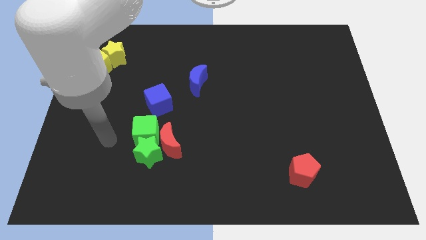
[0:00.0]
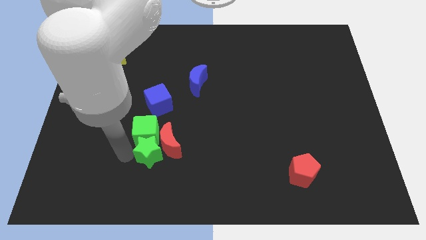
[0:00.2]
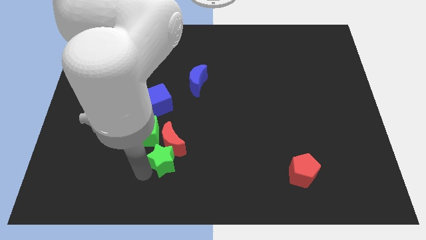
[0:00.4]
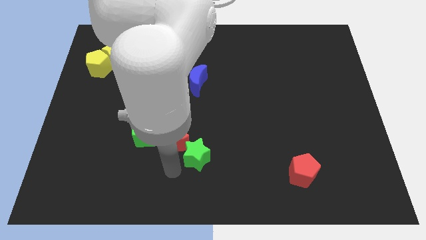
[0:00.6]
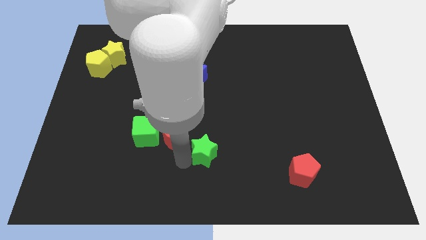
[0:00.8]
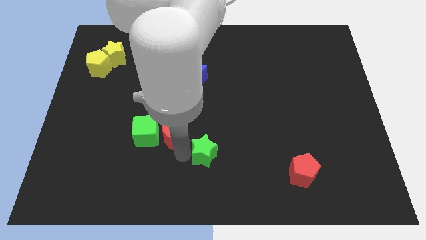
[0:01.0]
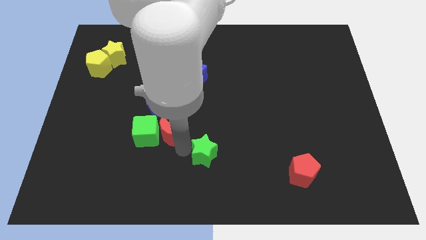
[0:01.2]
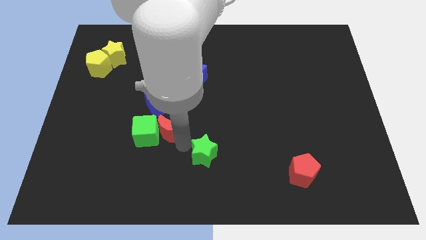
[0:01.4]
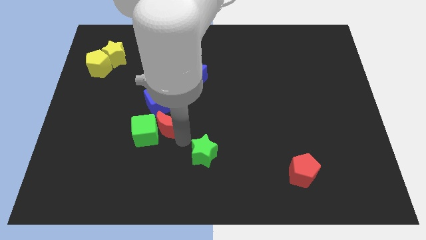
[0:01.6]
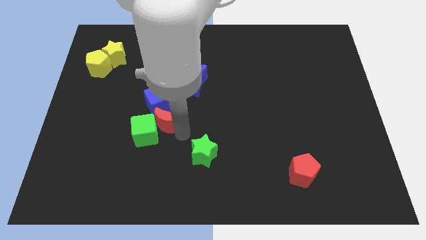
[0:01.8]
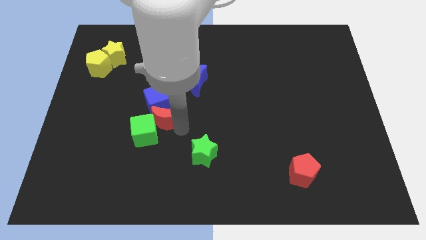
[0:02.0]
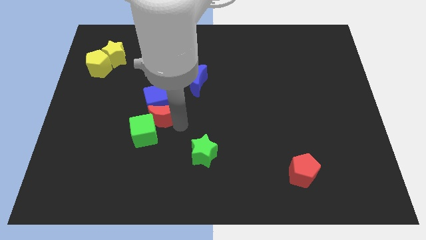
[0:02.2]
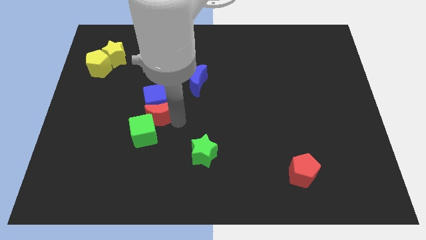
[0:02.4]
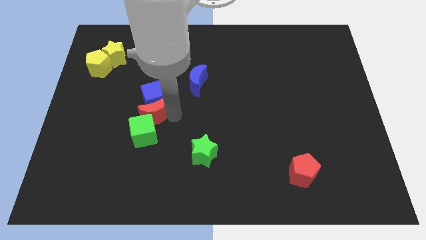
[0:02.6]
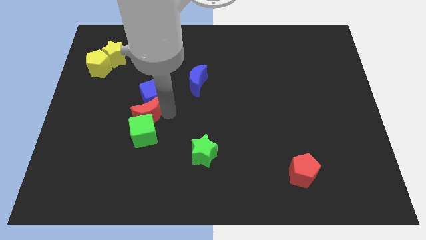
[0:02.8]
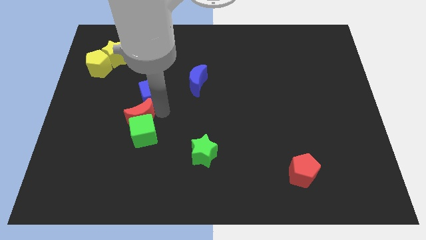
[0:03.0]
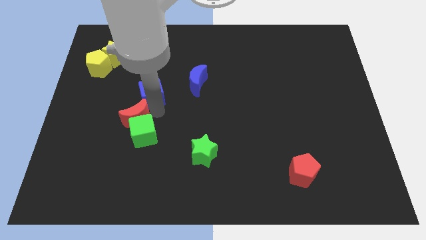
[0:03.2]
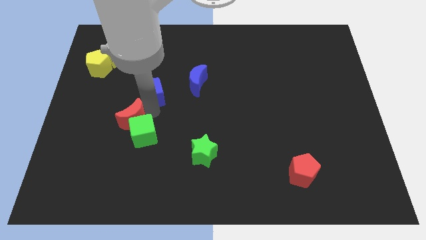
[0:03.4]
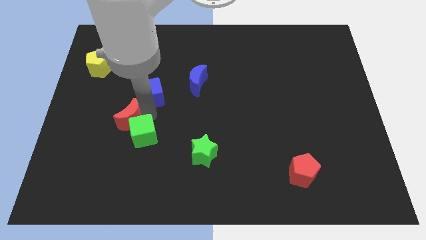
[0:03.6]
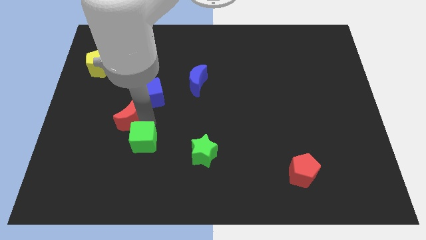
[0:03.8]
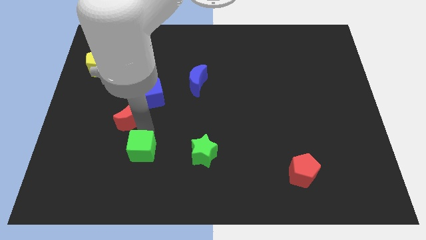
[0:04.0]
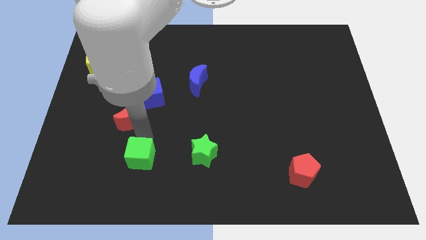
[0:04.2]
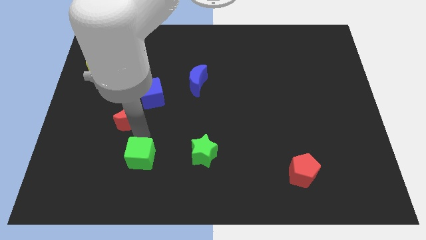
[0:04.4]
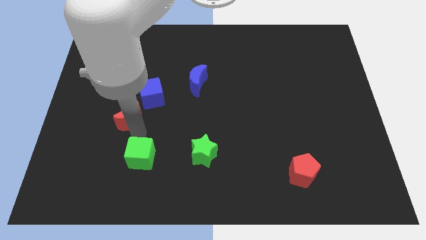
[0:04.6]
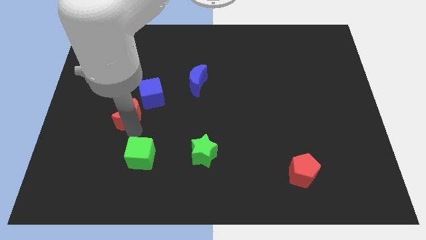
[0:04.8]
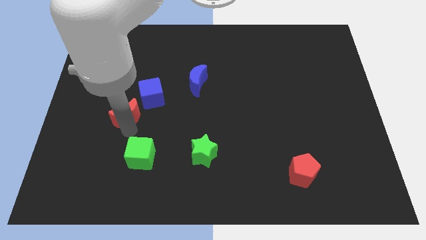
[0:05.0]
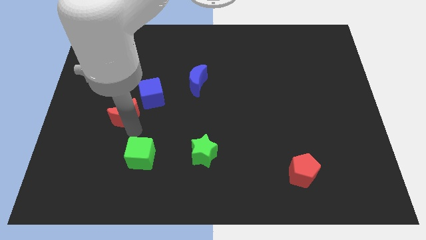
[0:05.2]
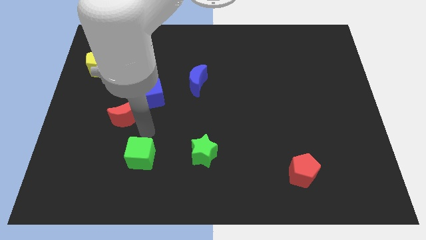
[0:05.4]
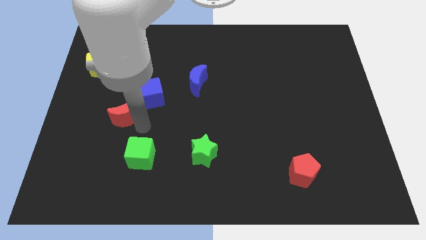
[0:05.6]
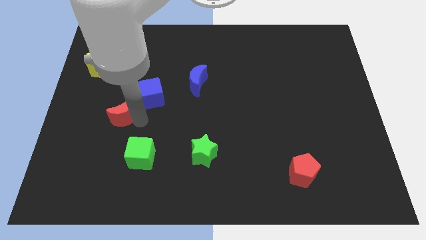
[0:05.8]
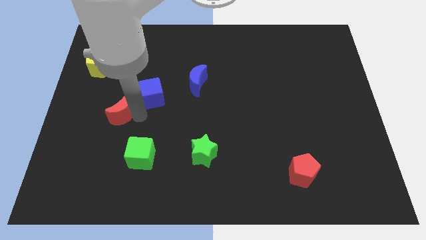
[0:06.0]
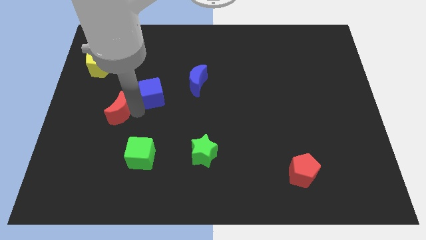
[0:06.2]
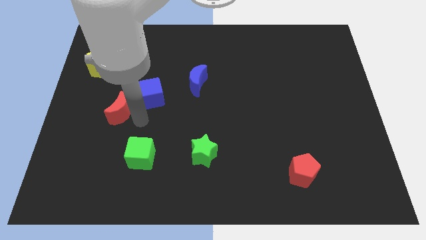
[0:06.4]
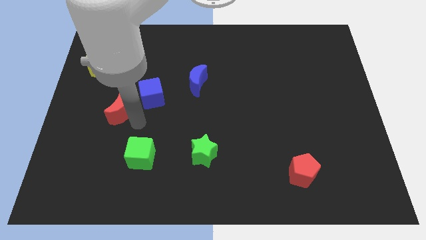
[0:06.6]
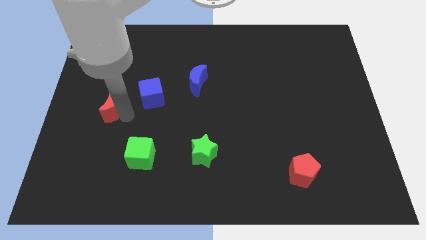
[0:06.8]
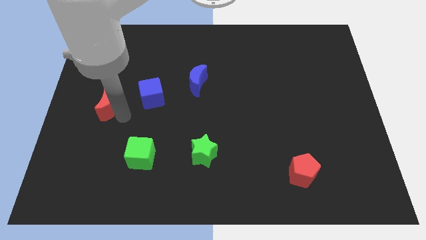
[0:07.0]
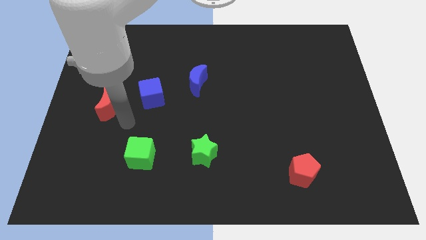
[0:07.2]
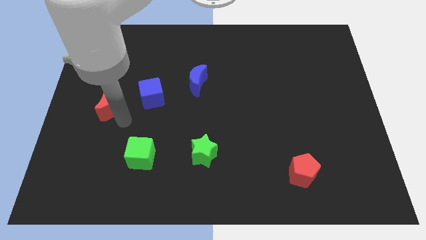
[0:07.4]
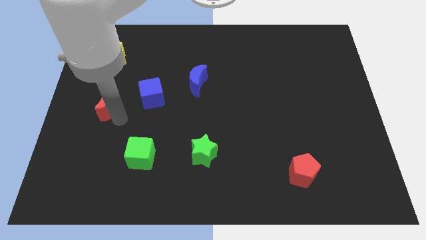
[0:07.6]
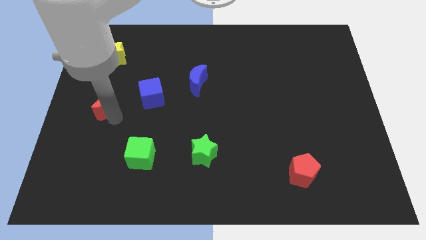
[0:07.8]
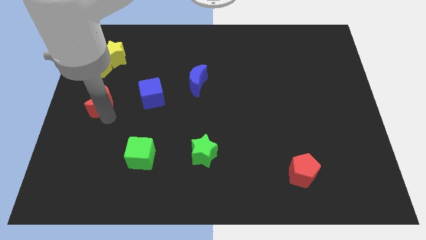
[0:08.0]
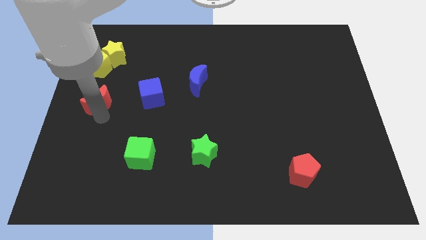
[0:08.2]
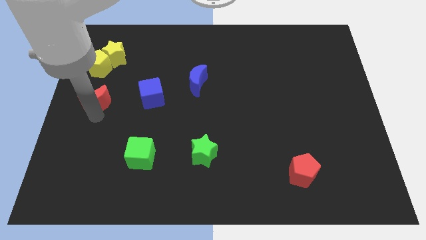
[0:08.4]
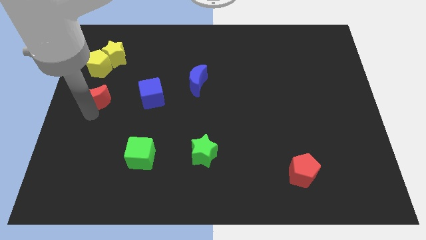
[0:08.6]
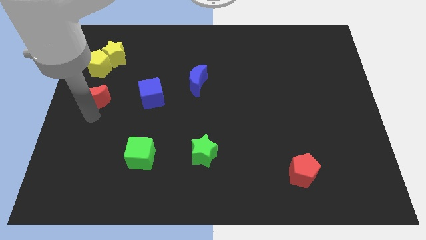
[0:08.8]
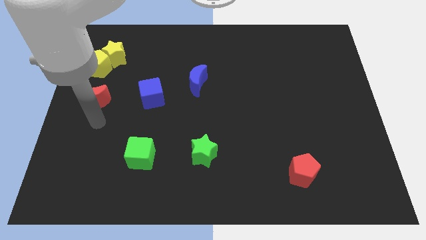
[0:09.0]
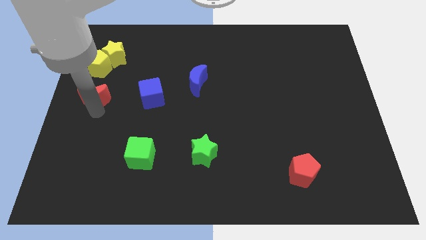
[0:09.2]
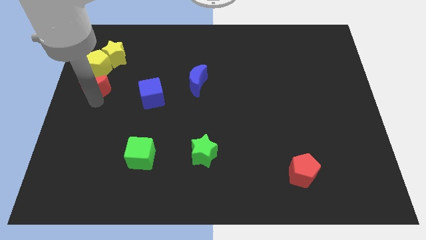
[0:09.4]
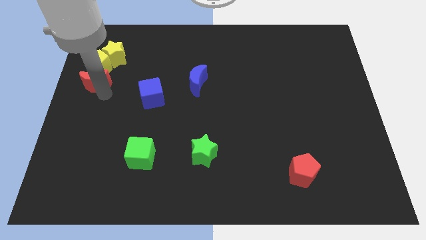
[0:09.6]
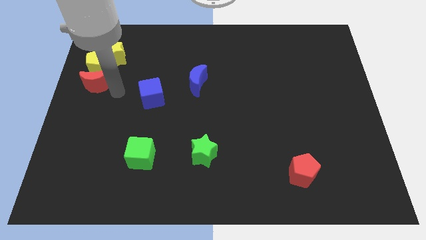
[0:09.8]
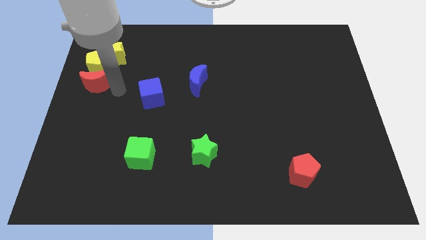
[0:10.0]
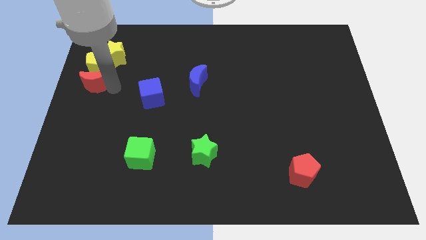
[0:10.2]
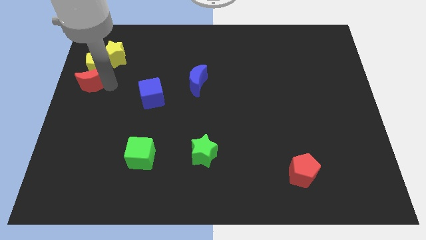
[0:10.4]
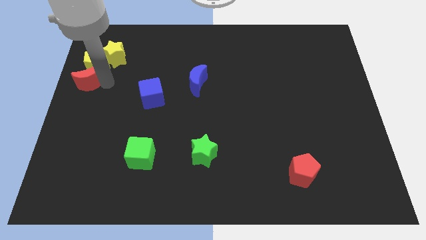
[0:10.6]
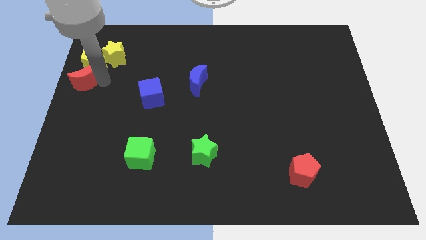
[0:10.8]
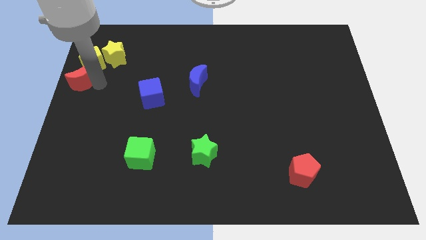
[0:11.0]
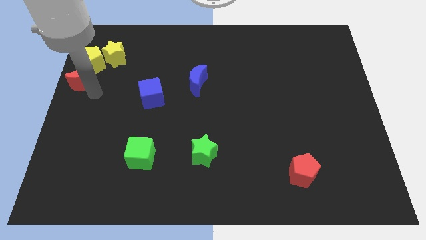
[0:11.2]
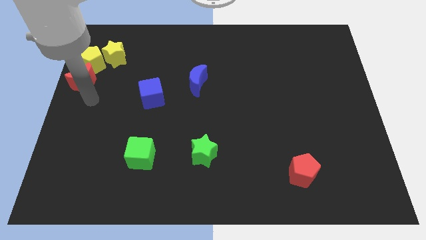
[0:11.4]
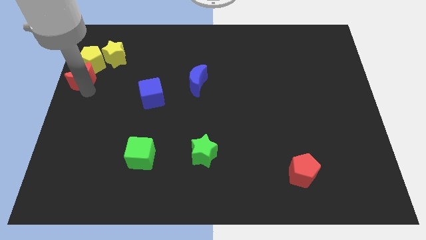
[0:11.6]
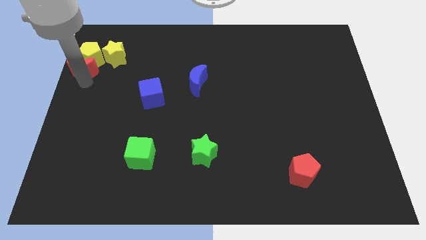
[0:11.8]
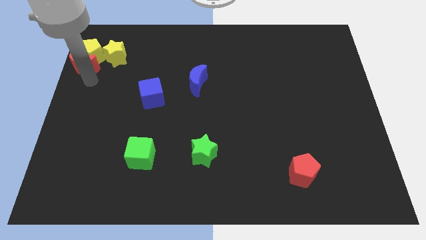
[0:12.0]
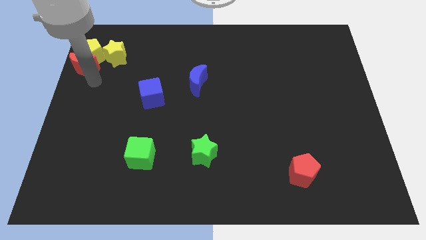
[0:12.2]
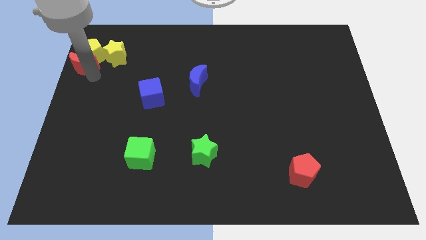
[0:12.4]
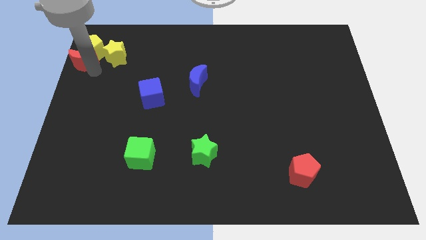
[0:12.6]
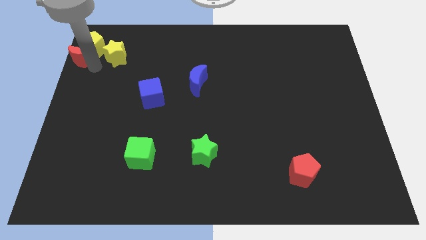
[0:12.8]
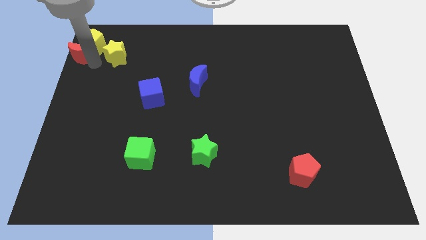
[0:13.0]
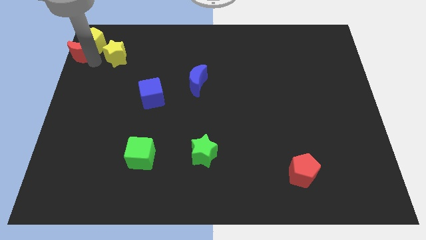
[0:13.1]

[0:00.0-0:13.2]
push the red moon to the top left

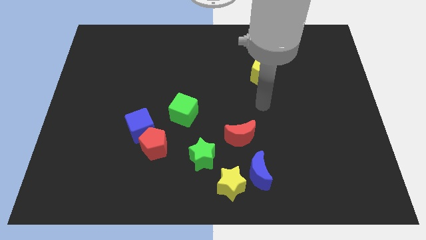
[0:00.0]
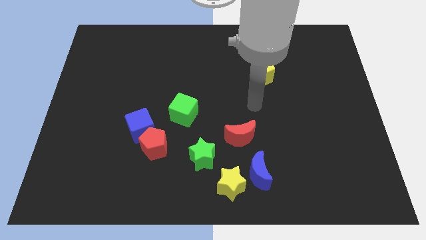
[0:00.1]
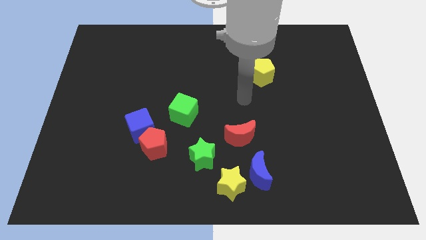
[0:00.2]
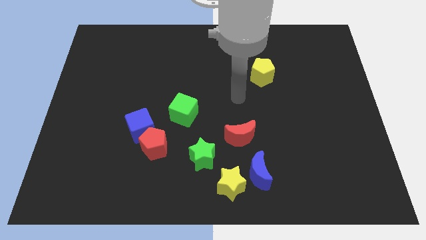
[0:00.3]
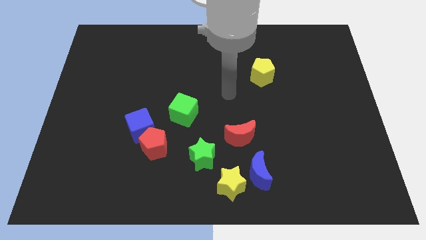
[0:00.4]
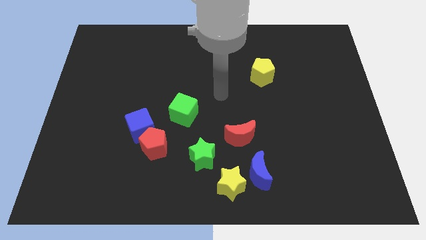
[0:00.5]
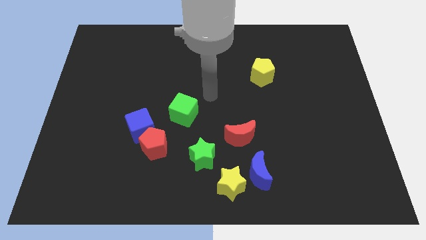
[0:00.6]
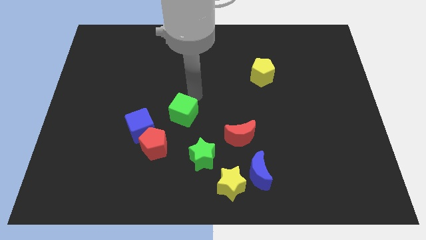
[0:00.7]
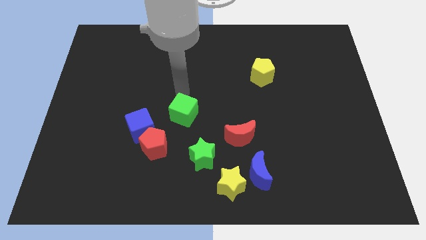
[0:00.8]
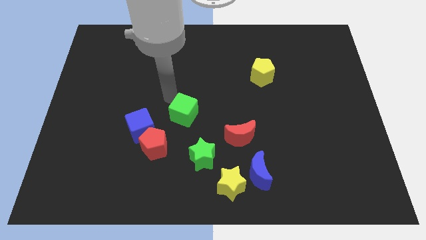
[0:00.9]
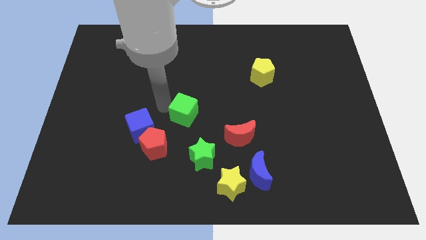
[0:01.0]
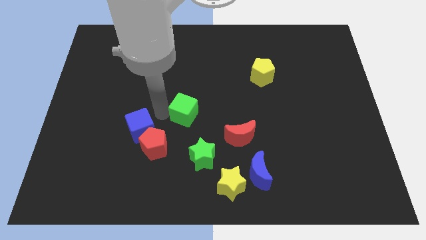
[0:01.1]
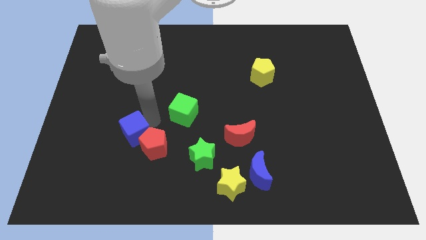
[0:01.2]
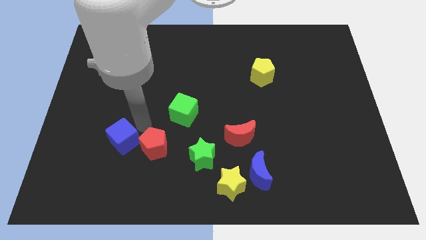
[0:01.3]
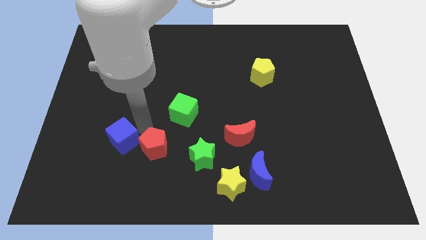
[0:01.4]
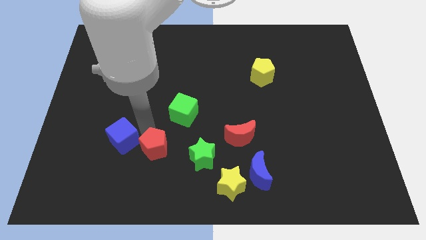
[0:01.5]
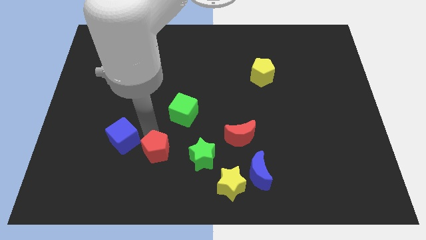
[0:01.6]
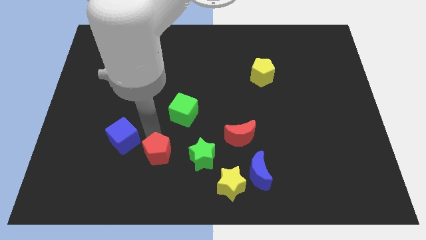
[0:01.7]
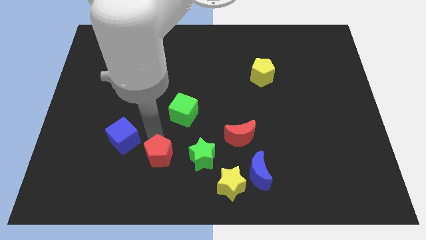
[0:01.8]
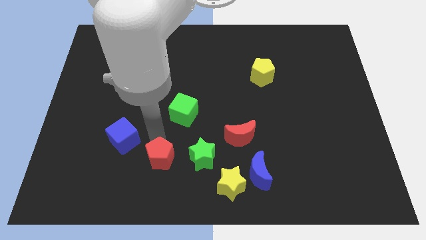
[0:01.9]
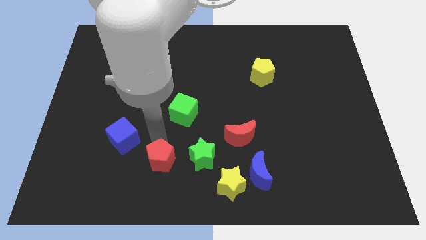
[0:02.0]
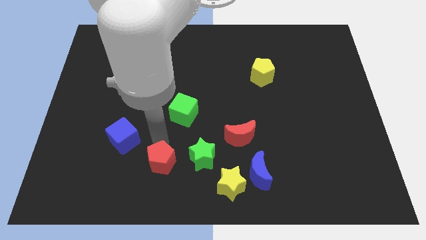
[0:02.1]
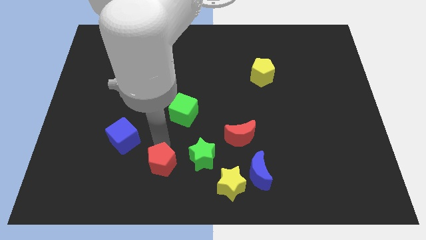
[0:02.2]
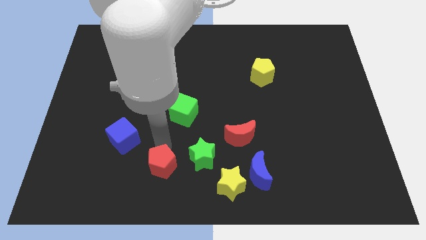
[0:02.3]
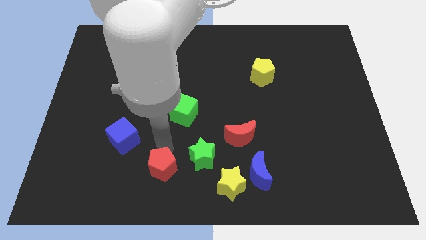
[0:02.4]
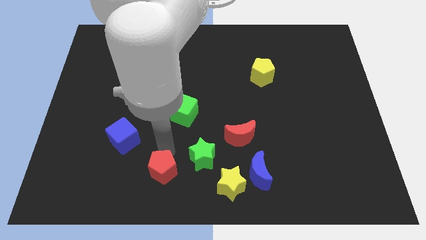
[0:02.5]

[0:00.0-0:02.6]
move the red pentagon to the bottom side
